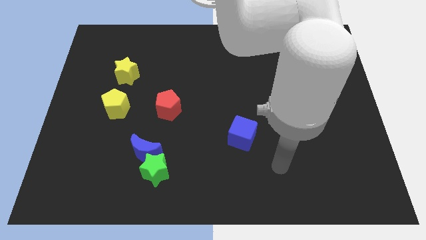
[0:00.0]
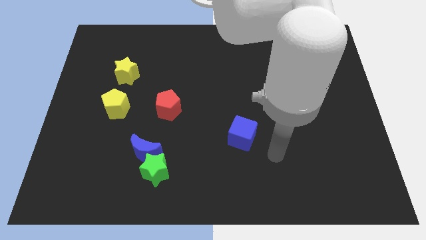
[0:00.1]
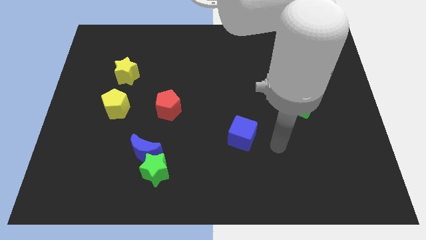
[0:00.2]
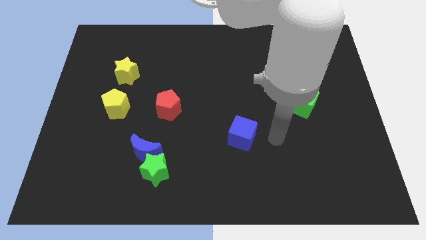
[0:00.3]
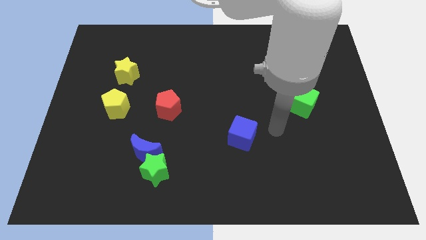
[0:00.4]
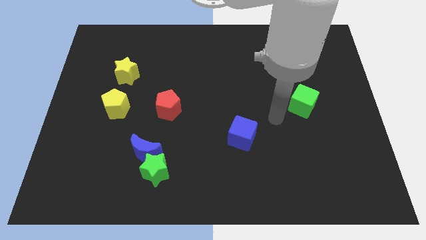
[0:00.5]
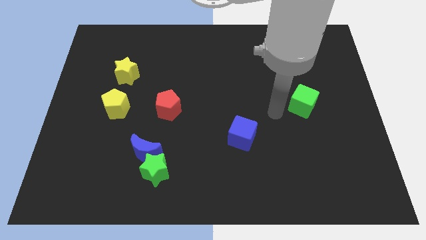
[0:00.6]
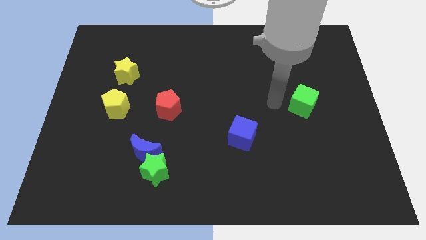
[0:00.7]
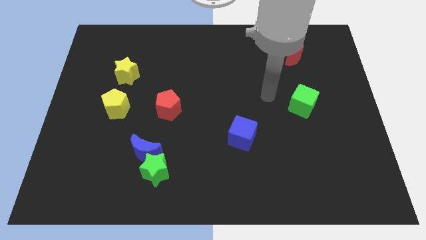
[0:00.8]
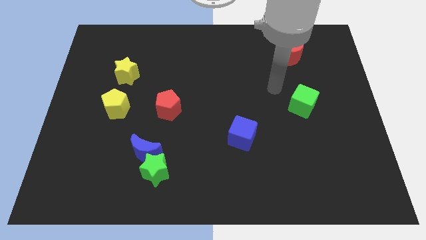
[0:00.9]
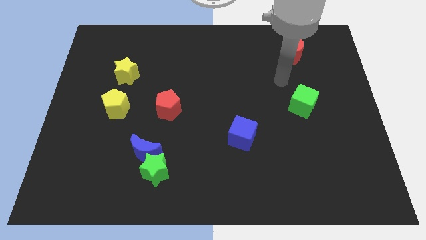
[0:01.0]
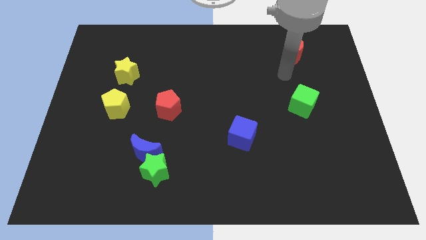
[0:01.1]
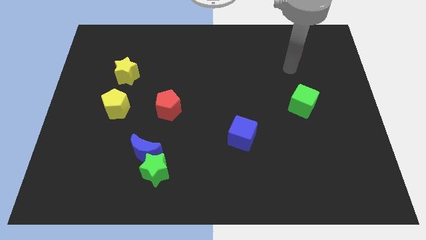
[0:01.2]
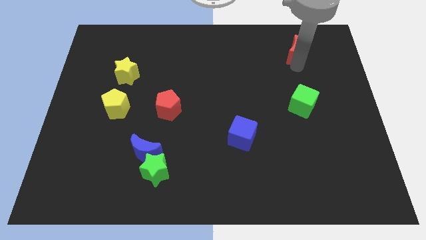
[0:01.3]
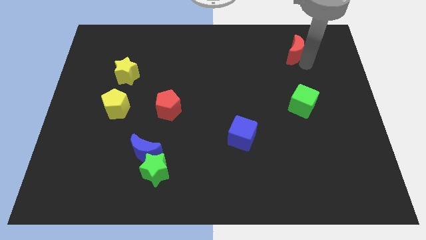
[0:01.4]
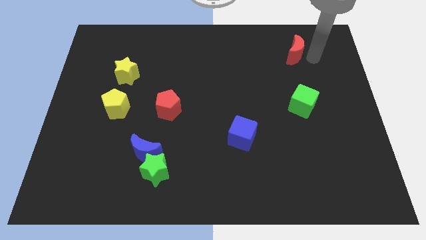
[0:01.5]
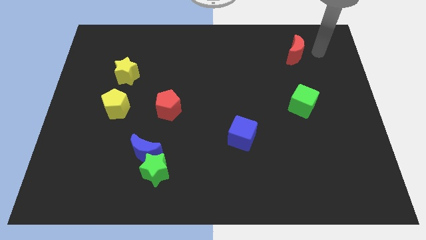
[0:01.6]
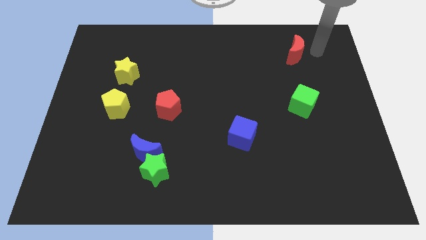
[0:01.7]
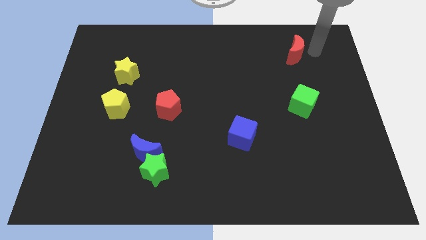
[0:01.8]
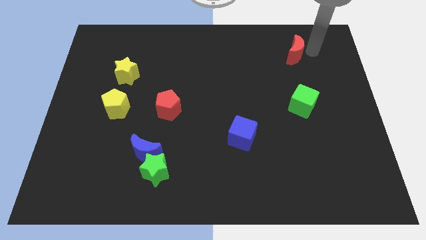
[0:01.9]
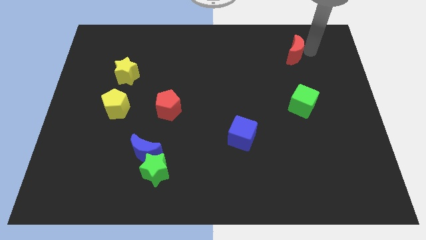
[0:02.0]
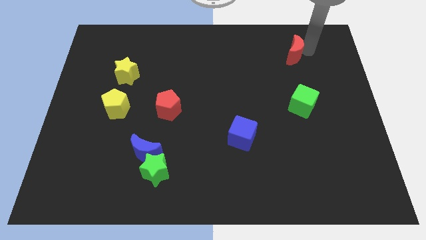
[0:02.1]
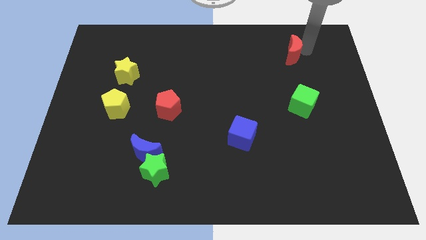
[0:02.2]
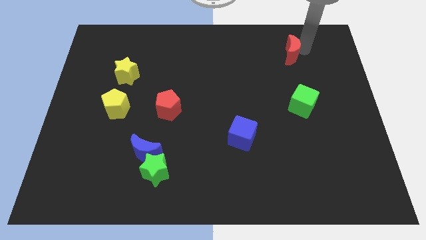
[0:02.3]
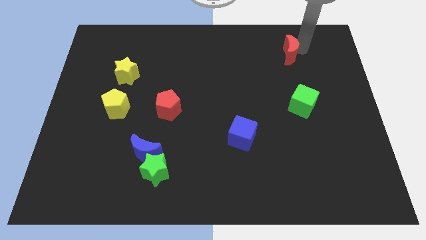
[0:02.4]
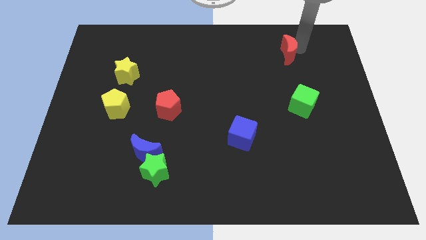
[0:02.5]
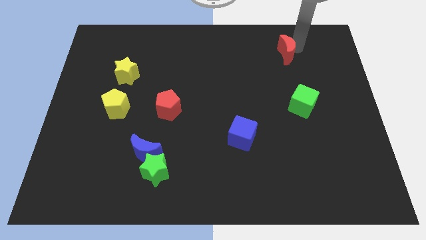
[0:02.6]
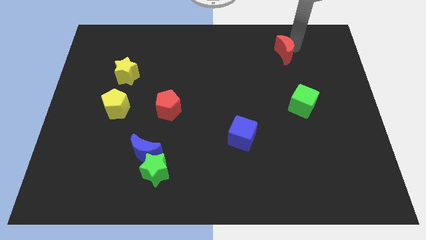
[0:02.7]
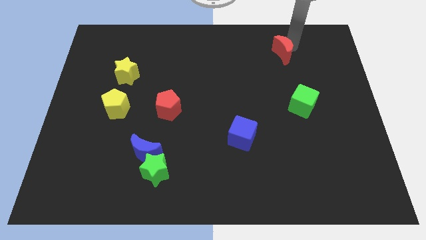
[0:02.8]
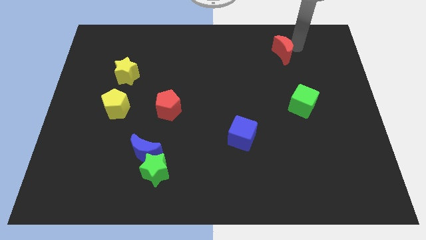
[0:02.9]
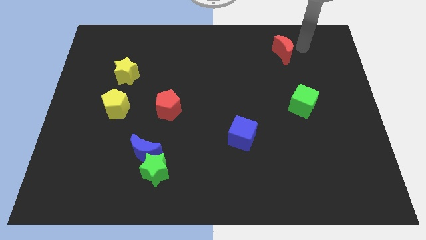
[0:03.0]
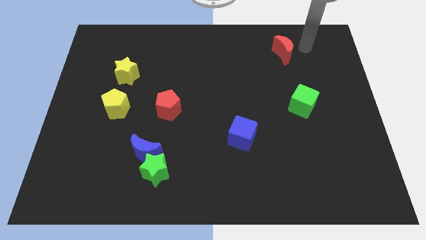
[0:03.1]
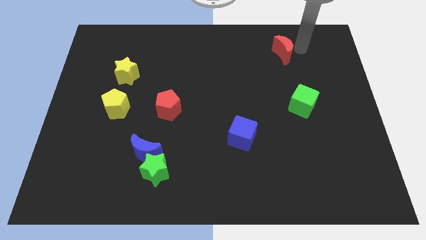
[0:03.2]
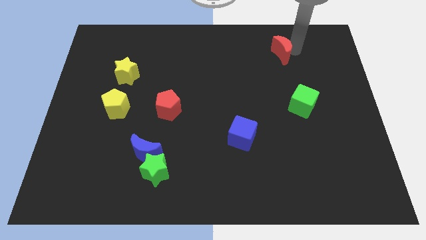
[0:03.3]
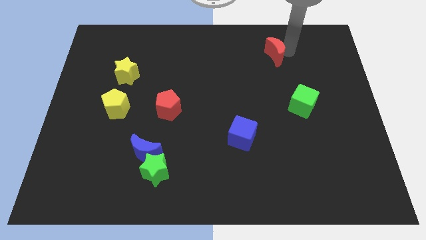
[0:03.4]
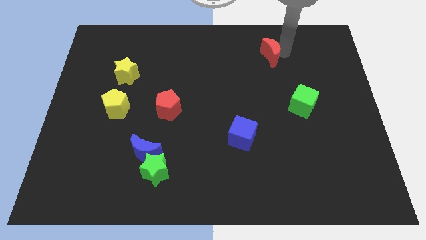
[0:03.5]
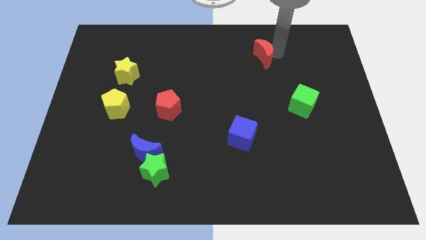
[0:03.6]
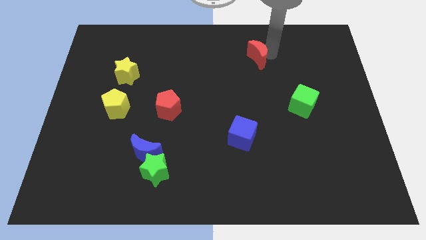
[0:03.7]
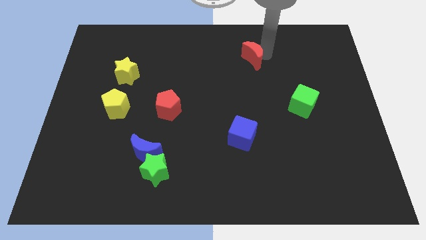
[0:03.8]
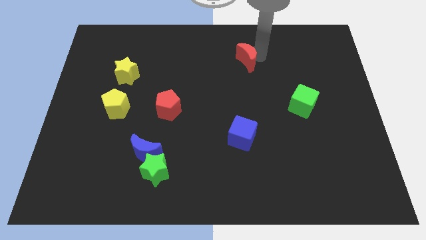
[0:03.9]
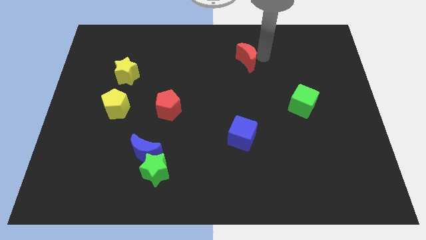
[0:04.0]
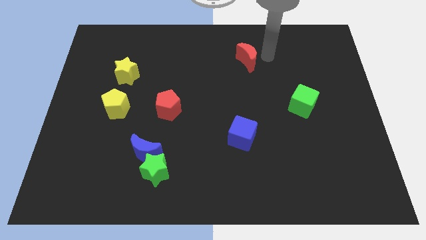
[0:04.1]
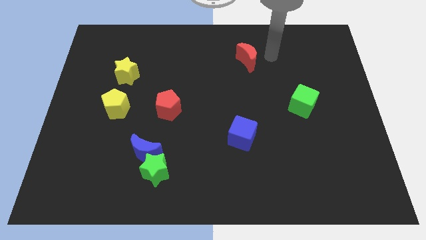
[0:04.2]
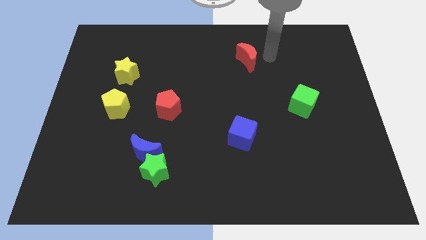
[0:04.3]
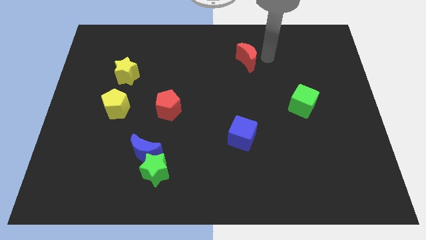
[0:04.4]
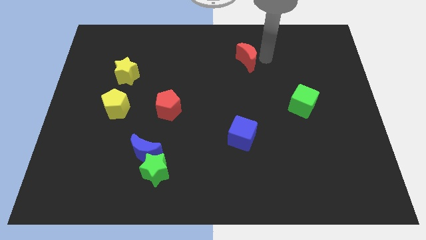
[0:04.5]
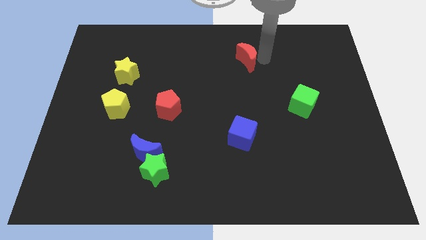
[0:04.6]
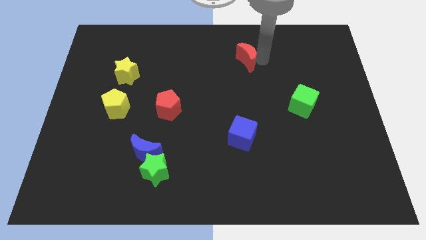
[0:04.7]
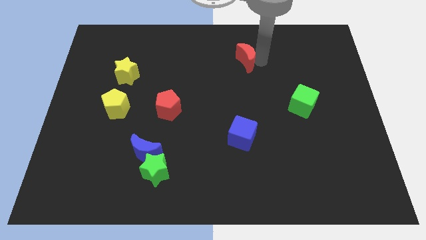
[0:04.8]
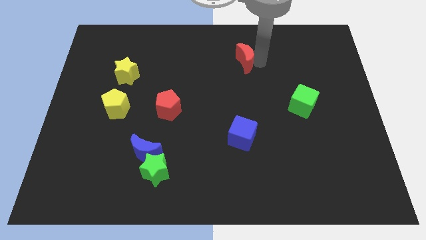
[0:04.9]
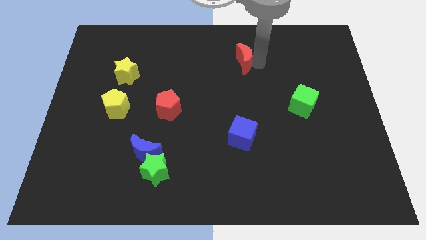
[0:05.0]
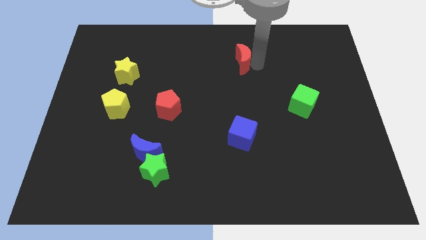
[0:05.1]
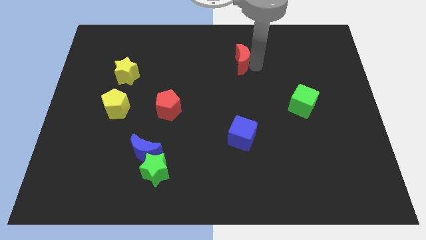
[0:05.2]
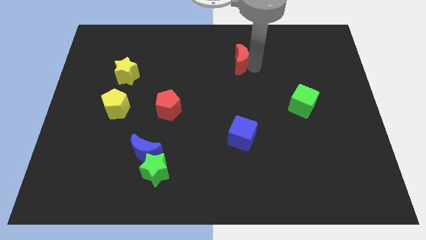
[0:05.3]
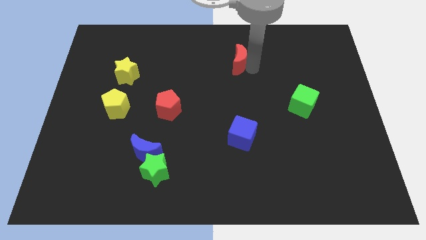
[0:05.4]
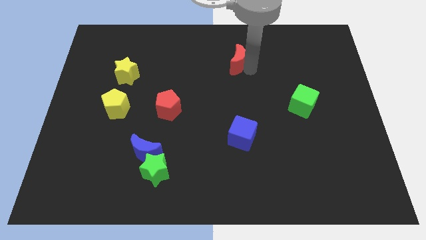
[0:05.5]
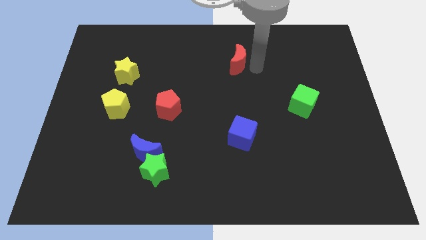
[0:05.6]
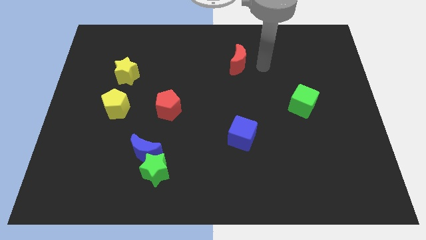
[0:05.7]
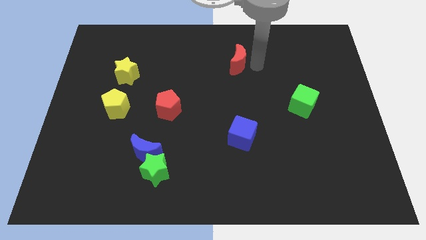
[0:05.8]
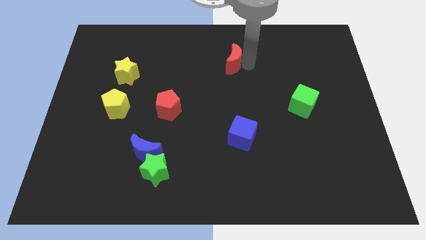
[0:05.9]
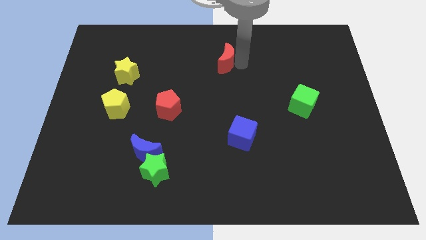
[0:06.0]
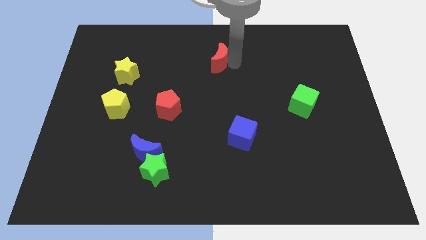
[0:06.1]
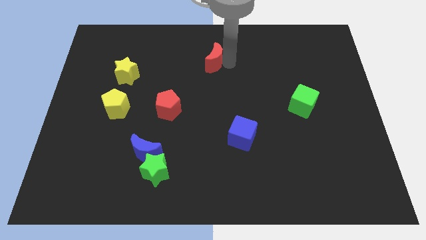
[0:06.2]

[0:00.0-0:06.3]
slide the red moon to the left

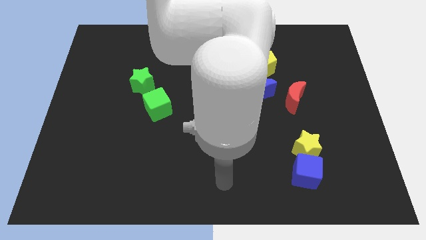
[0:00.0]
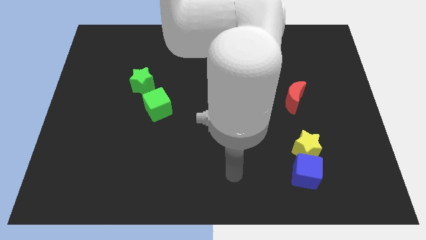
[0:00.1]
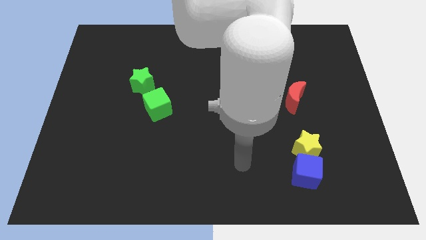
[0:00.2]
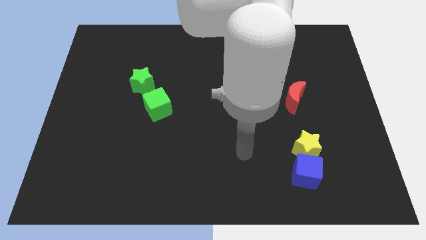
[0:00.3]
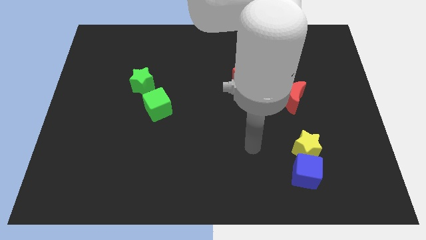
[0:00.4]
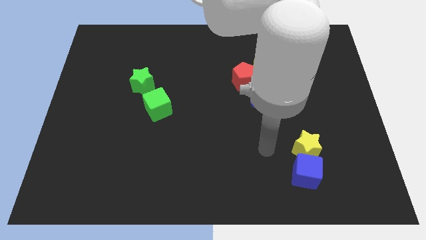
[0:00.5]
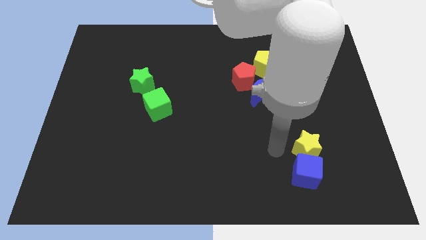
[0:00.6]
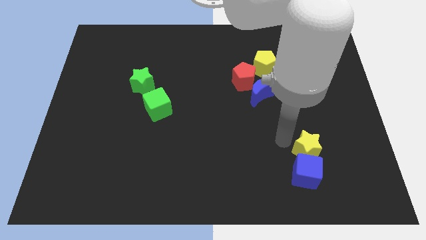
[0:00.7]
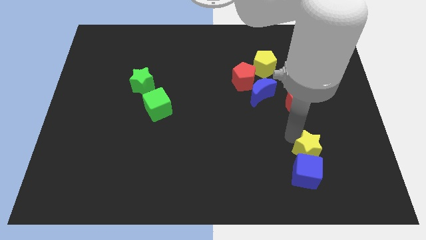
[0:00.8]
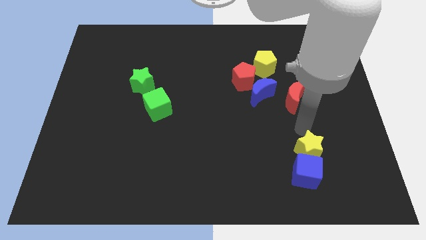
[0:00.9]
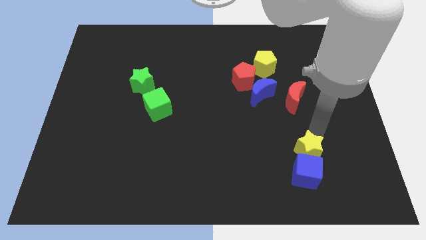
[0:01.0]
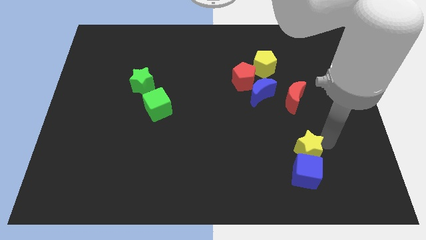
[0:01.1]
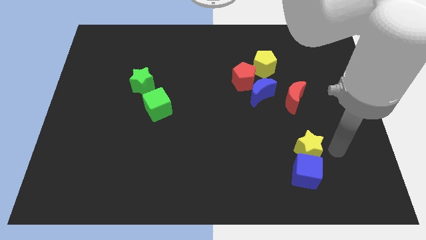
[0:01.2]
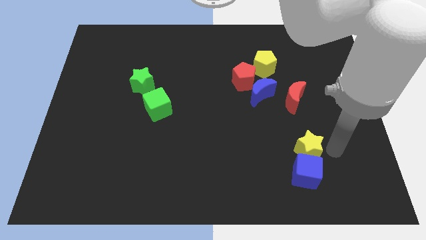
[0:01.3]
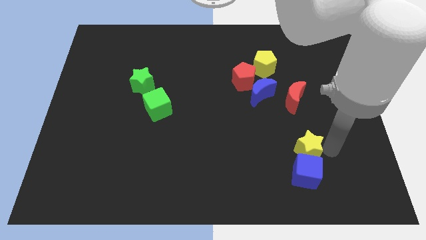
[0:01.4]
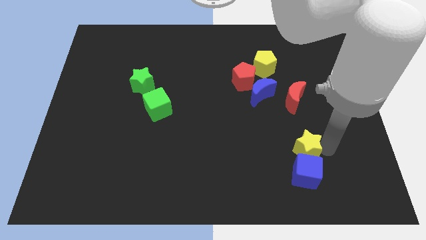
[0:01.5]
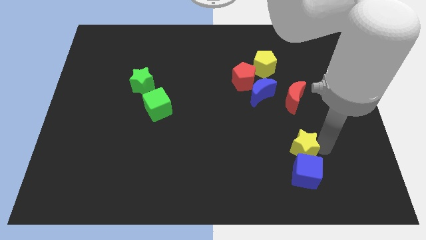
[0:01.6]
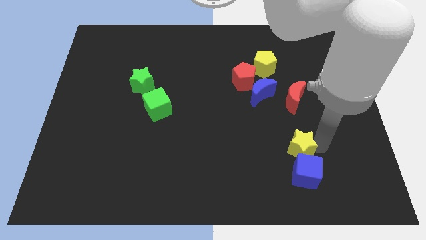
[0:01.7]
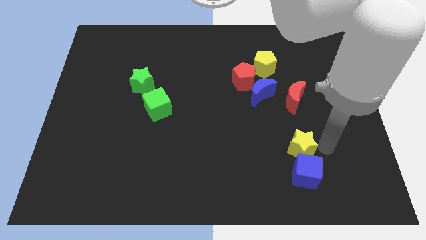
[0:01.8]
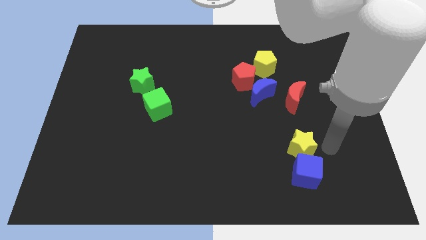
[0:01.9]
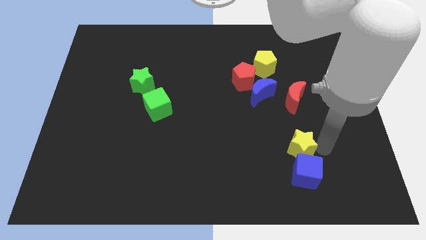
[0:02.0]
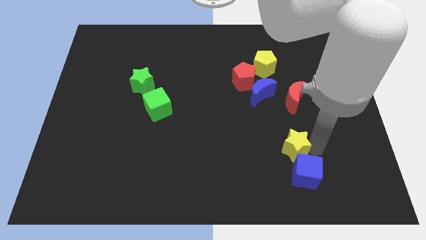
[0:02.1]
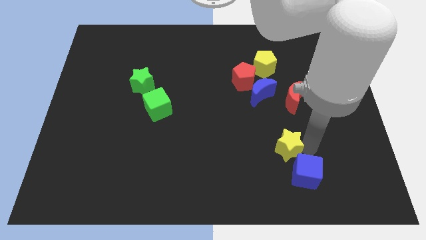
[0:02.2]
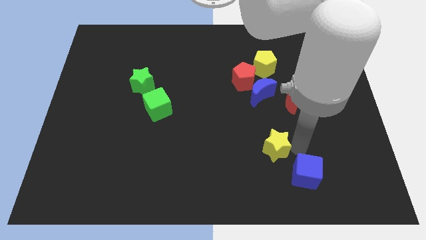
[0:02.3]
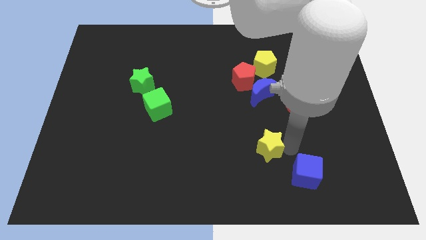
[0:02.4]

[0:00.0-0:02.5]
slightly move the yellow star to the left
